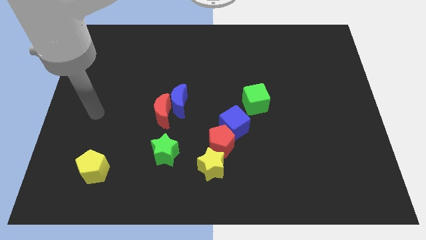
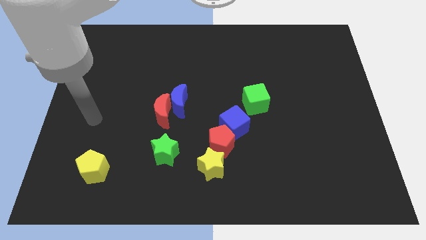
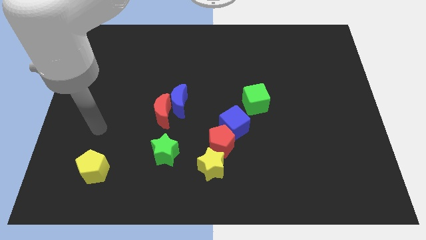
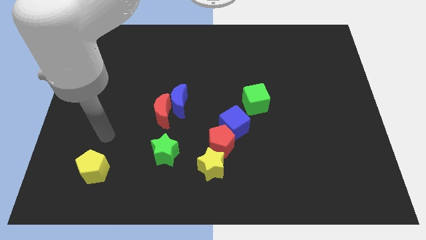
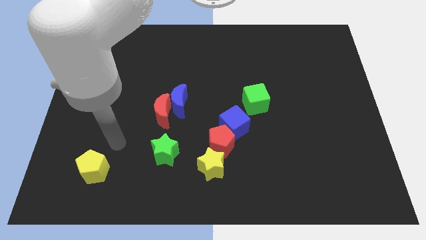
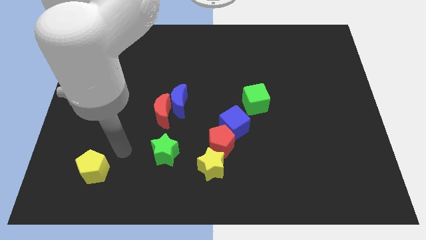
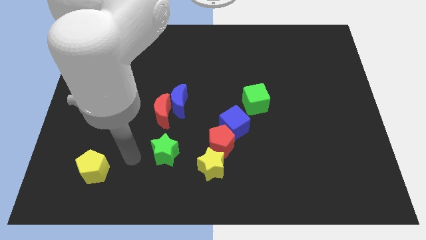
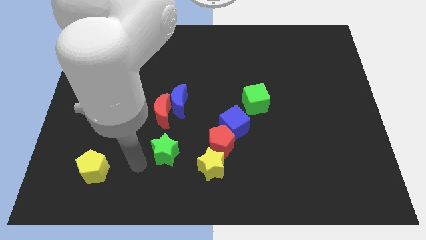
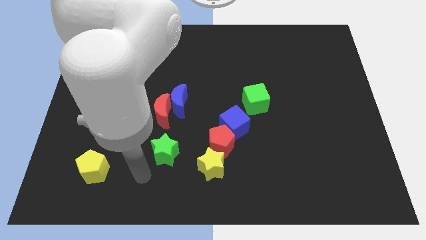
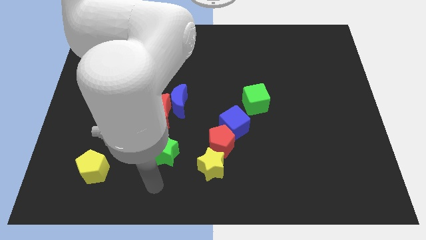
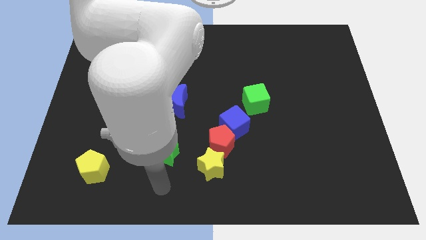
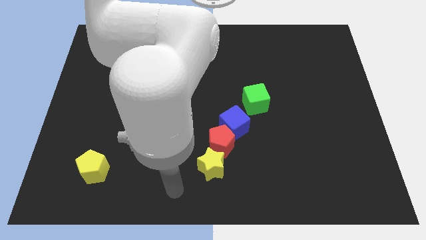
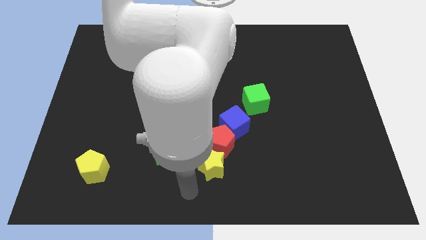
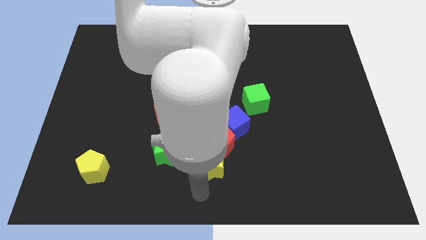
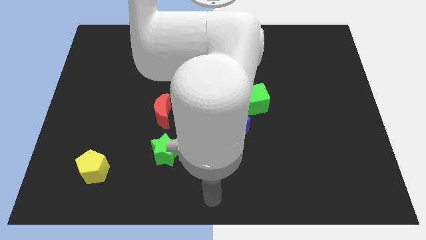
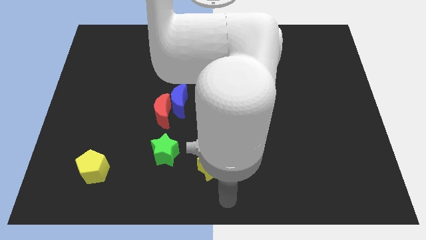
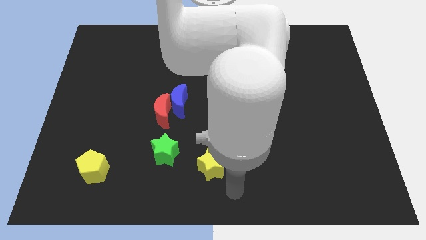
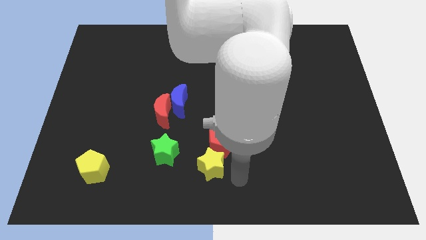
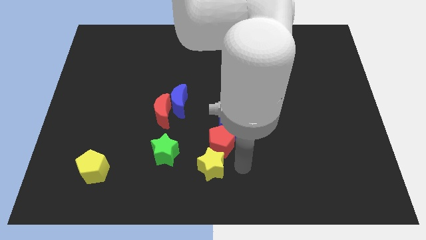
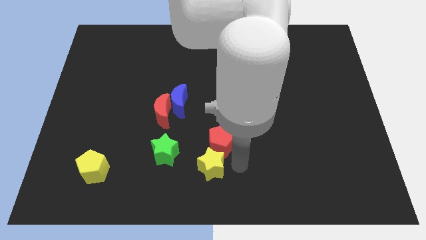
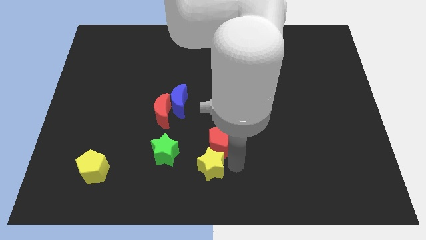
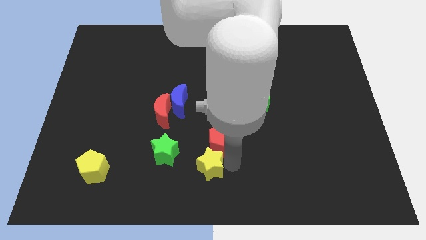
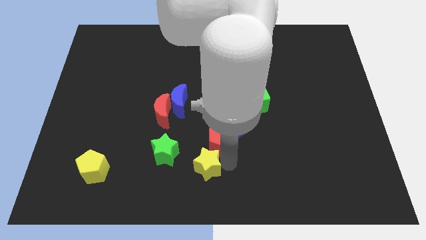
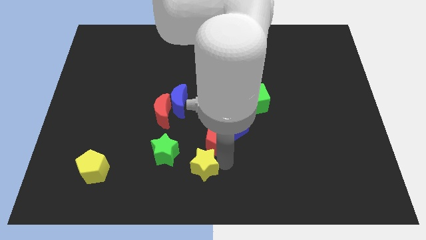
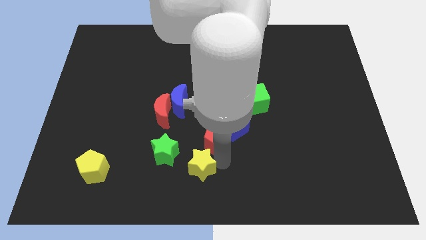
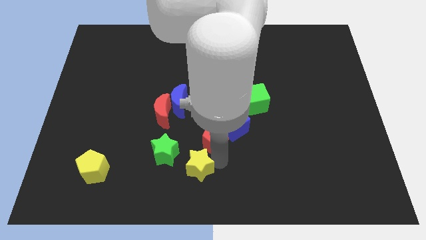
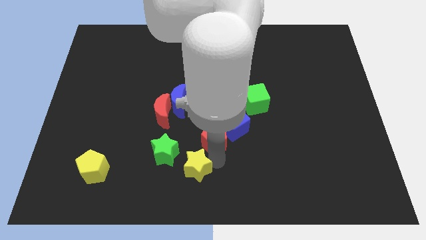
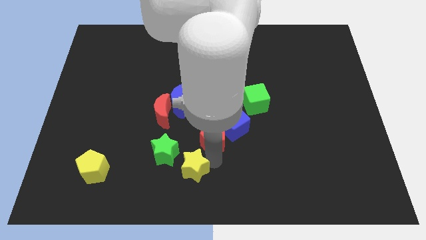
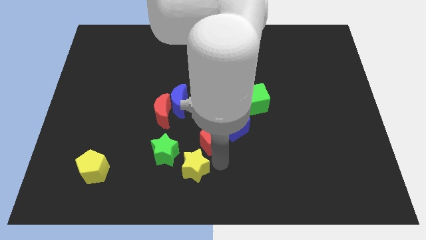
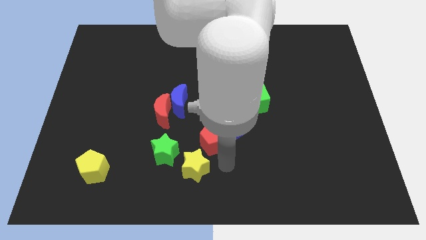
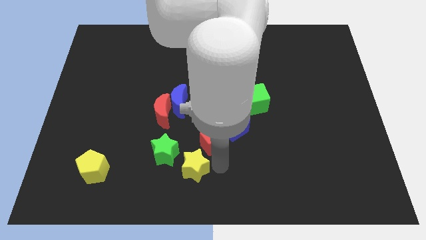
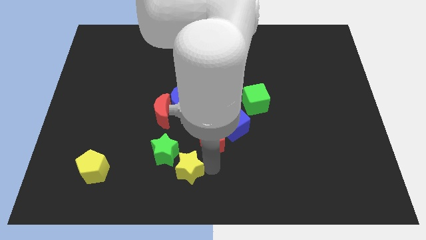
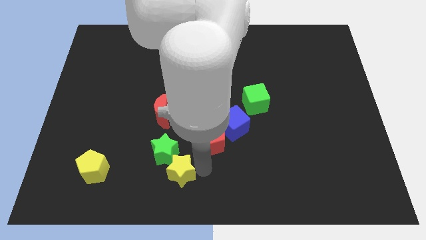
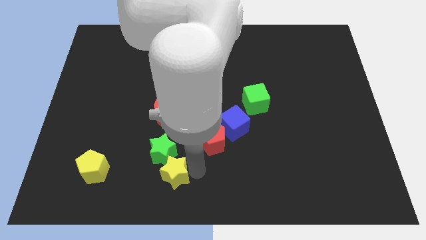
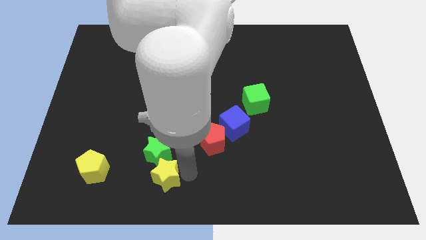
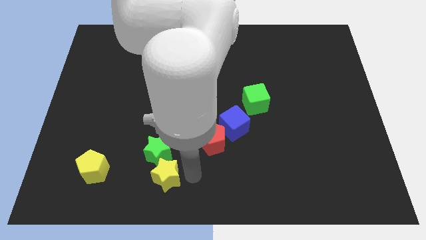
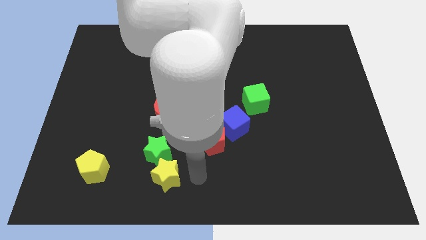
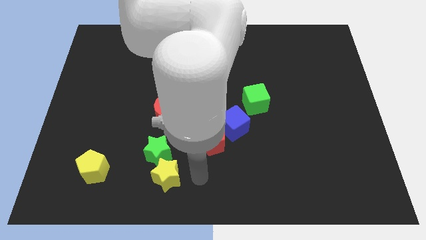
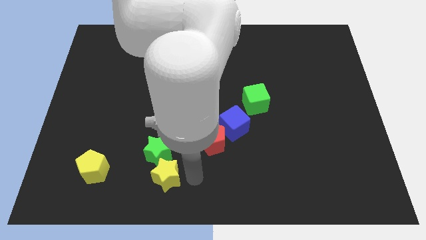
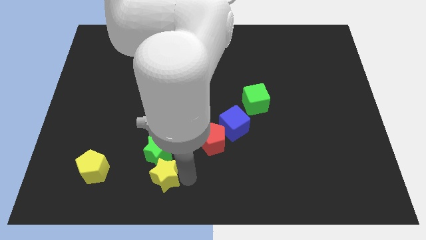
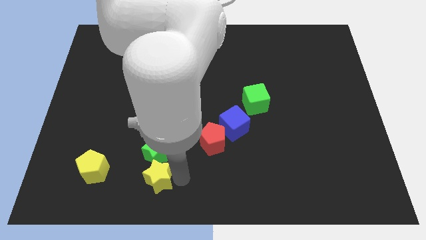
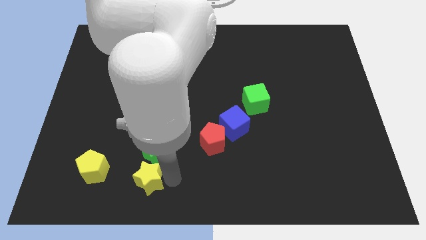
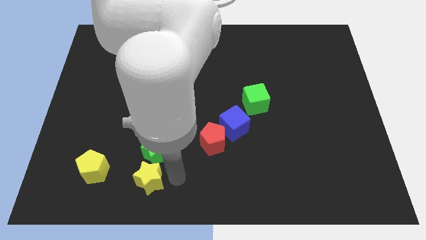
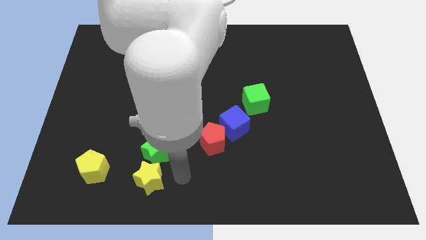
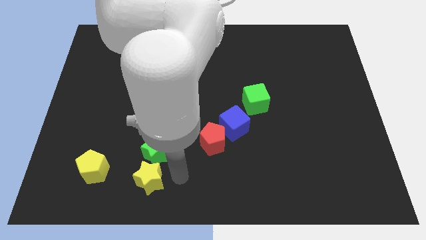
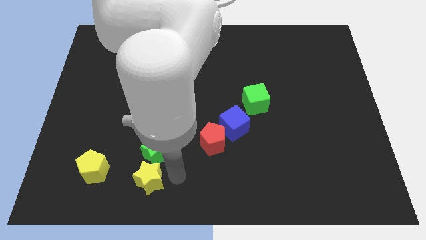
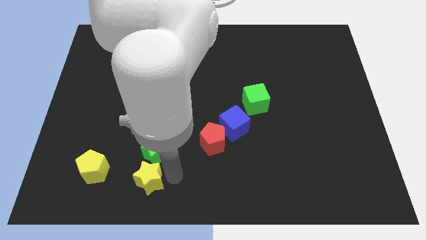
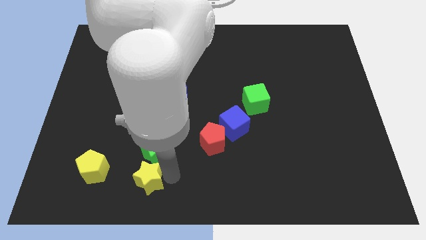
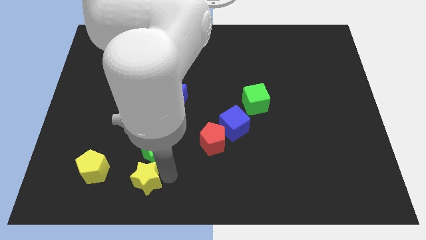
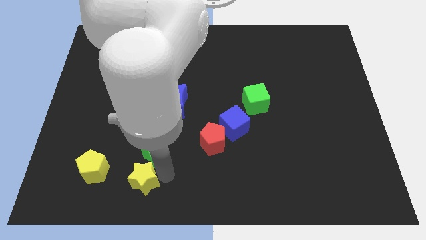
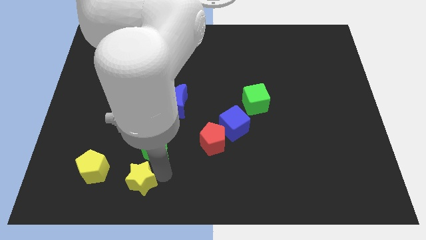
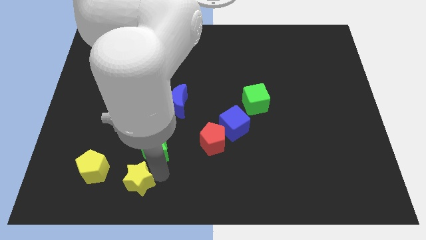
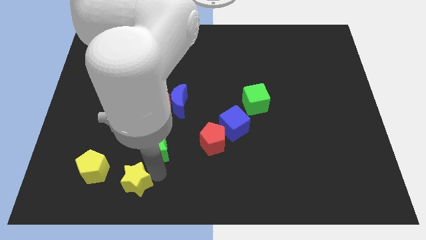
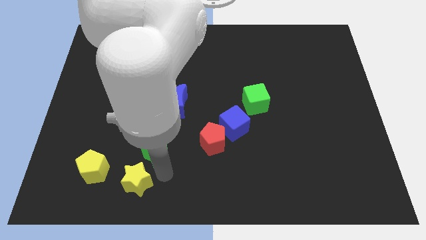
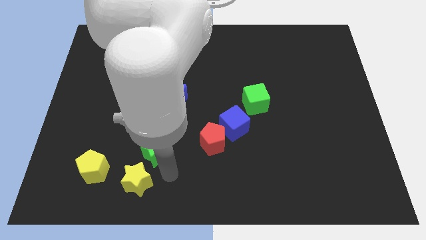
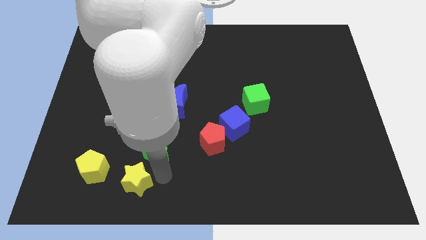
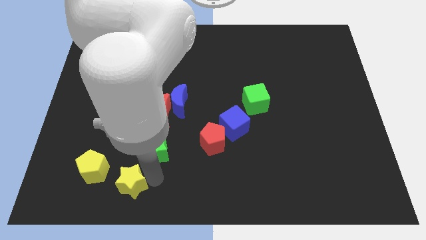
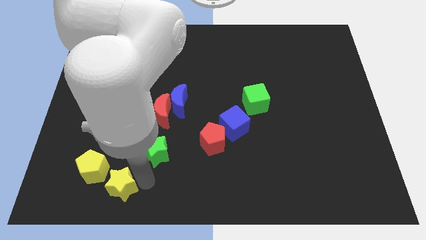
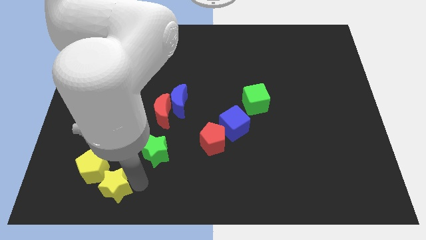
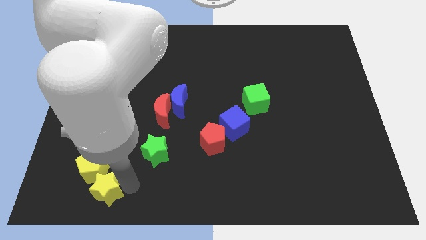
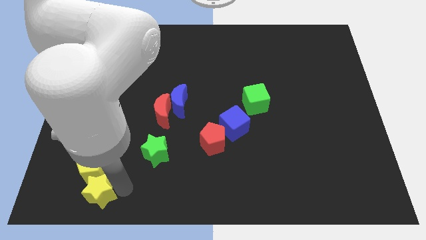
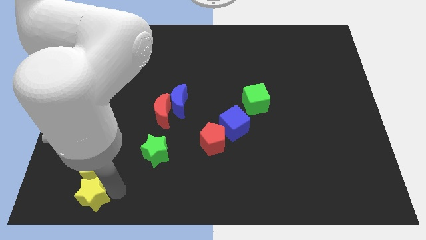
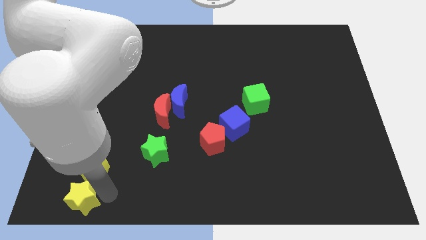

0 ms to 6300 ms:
push the yellow star to the bottom left of the board

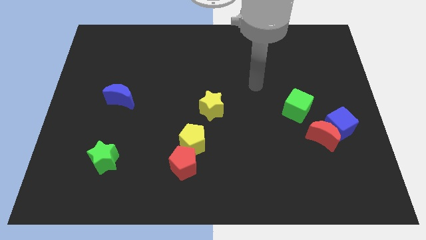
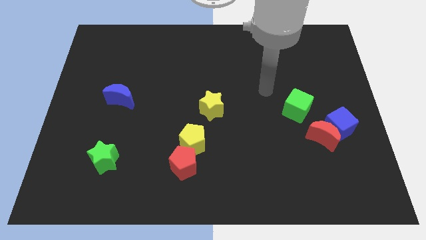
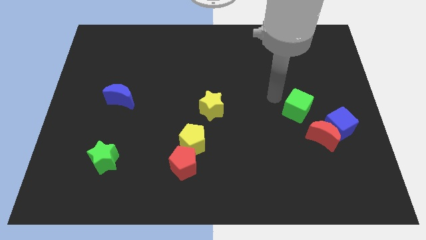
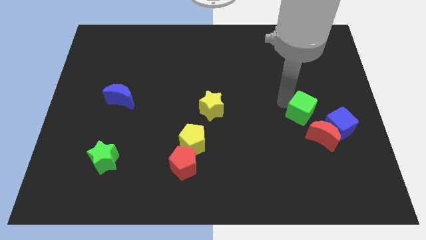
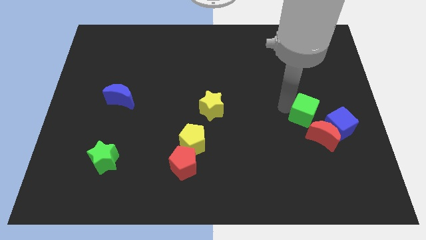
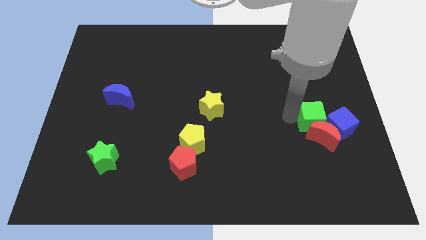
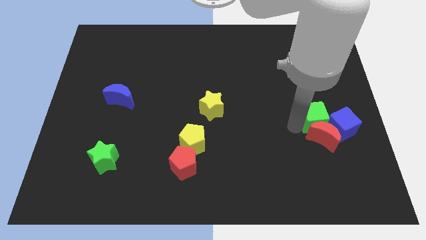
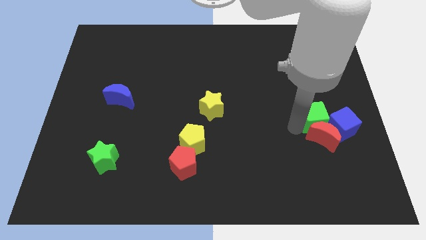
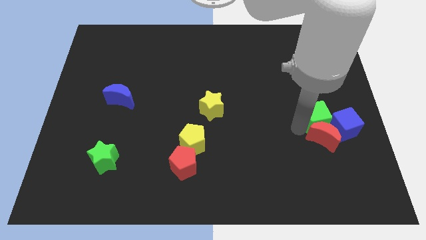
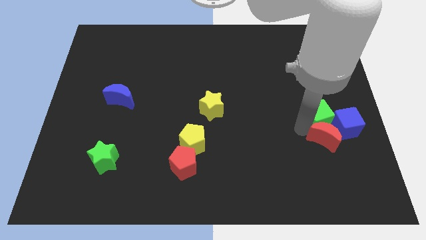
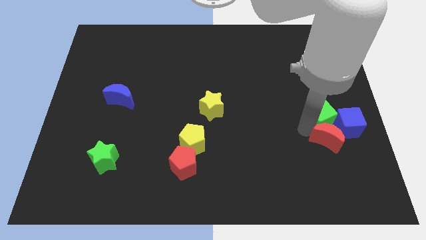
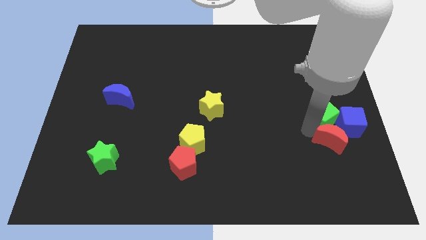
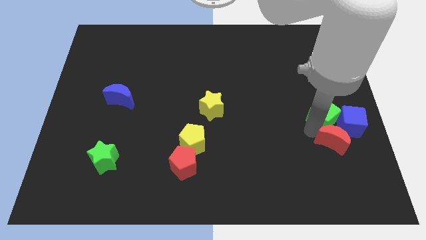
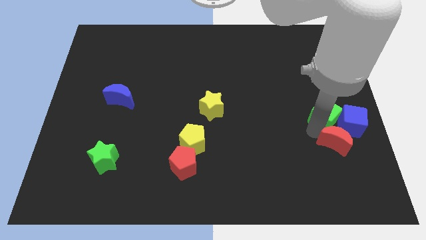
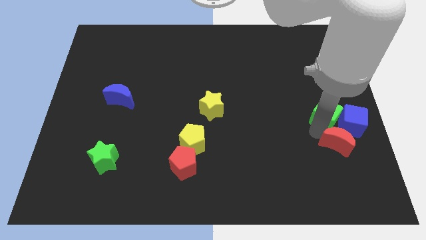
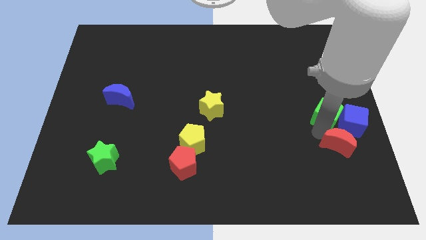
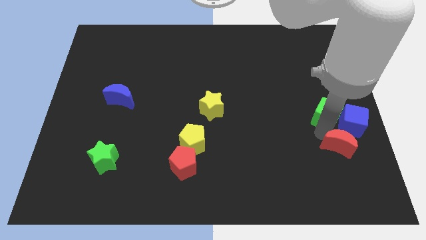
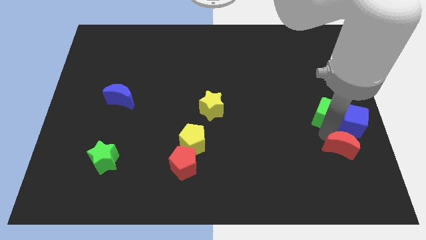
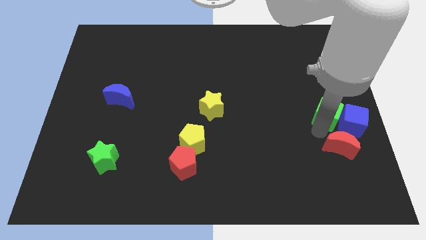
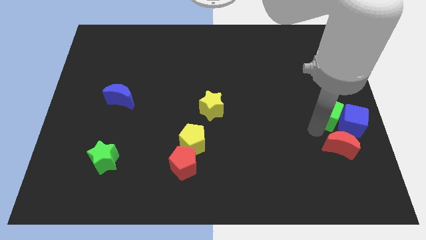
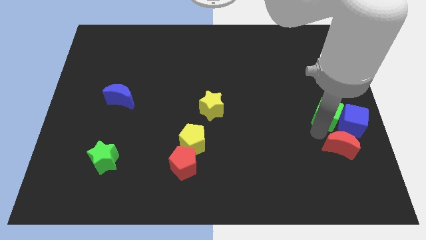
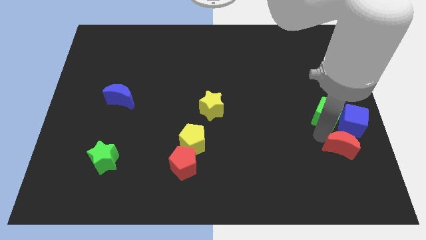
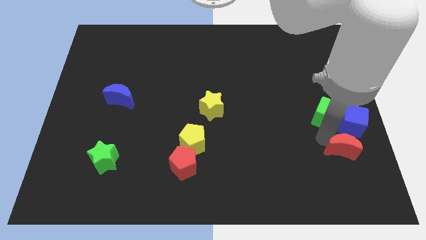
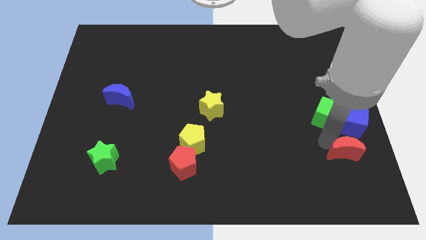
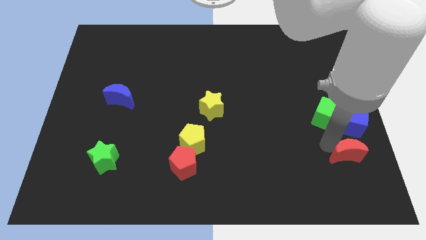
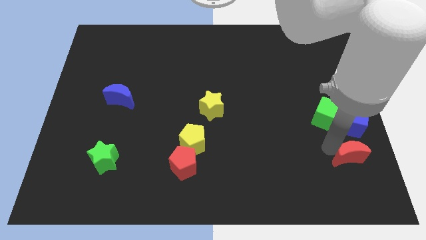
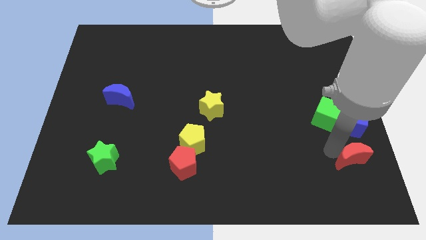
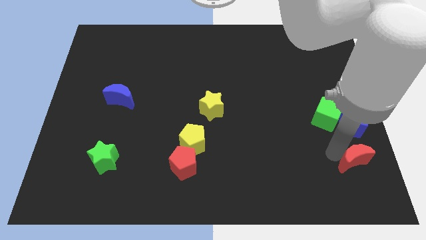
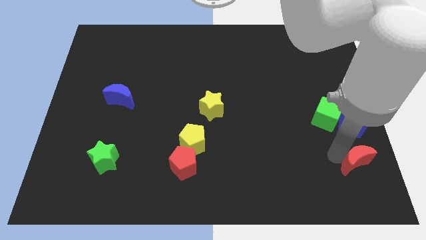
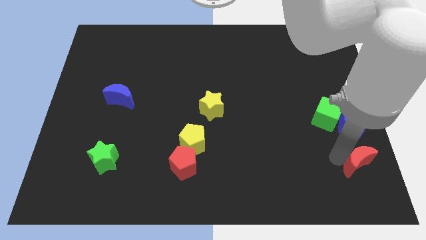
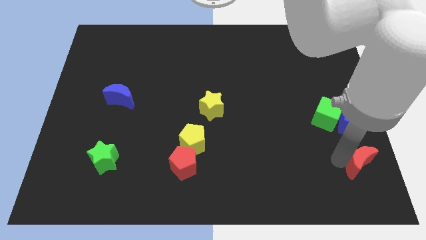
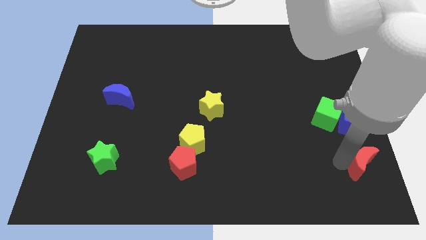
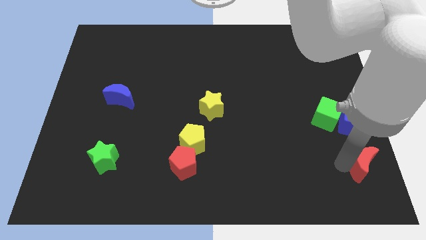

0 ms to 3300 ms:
push the red moon to the bottom right corner
